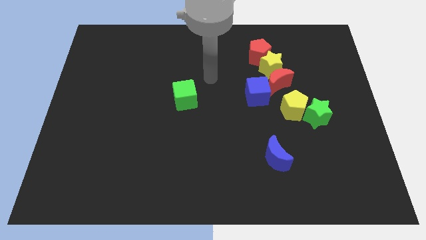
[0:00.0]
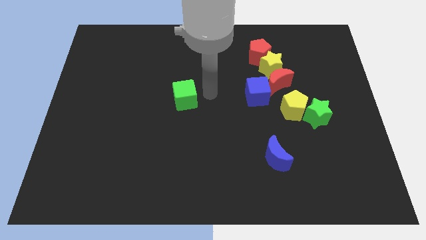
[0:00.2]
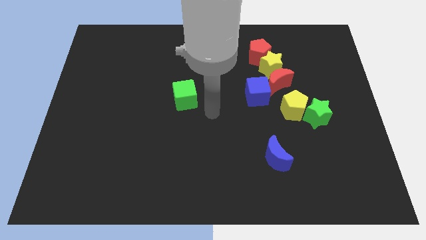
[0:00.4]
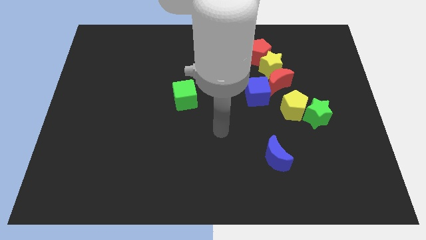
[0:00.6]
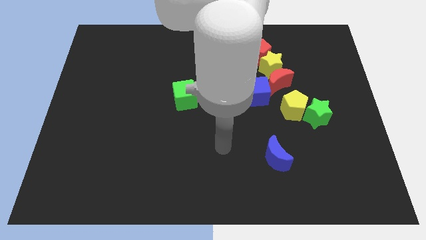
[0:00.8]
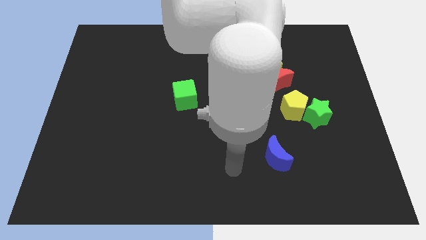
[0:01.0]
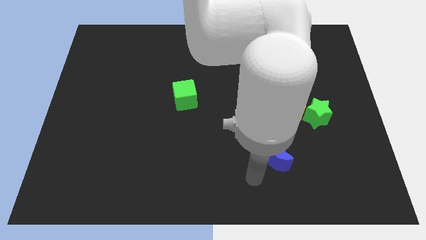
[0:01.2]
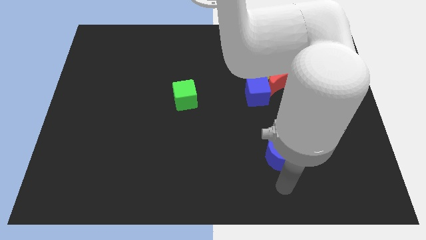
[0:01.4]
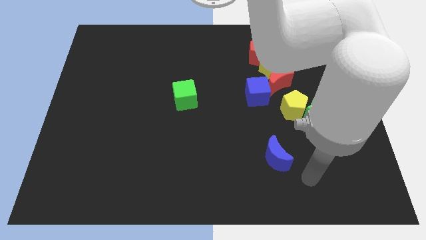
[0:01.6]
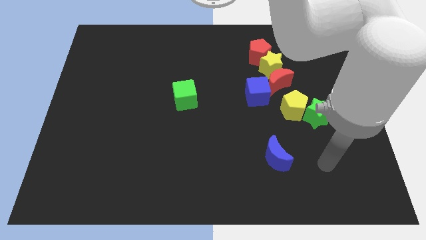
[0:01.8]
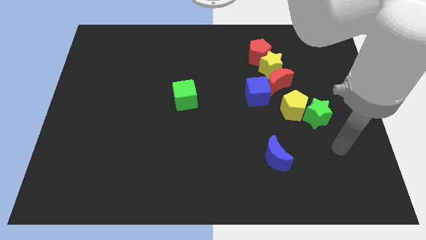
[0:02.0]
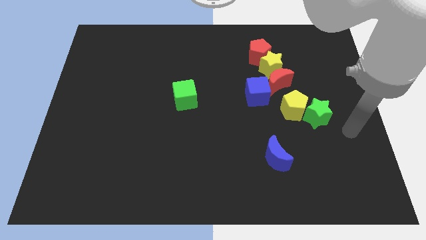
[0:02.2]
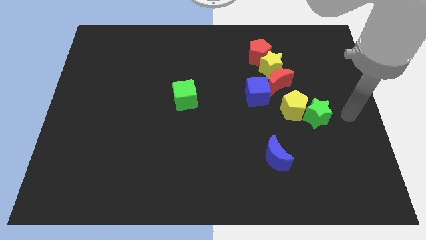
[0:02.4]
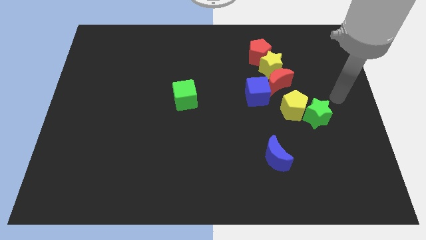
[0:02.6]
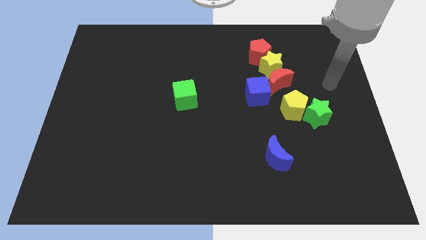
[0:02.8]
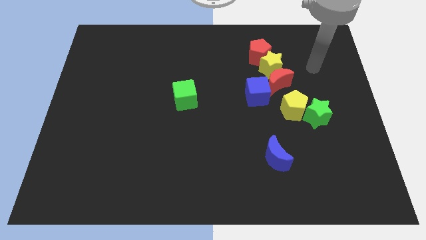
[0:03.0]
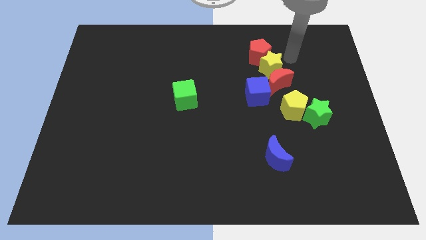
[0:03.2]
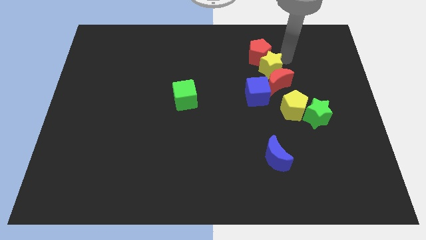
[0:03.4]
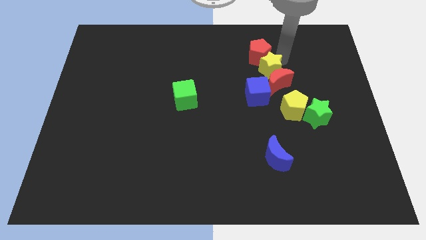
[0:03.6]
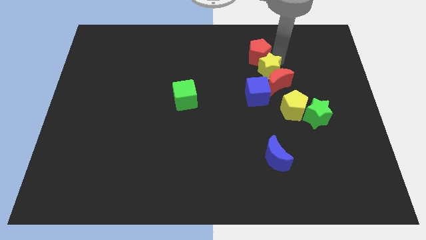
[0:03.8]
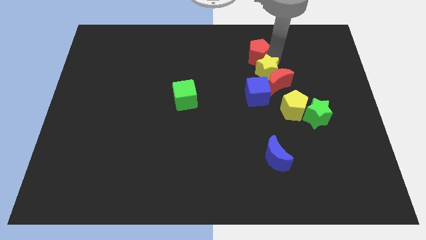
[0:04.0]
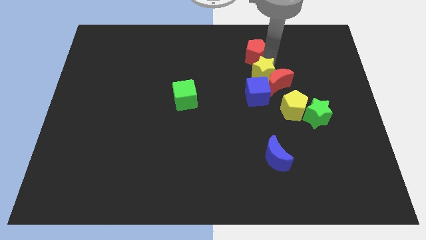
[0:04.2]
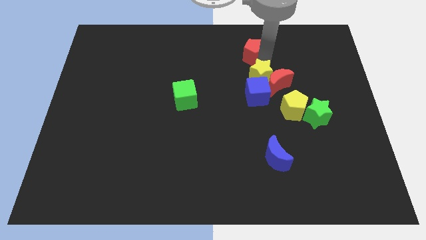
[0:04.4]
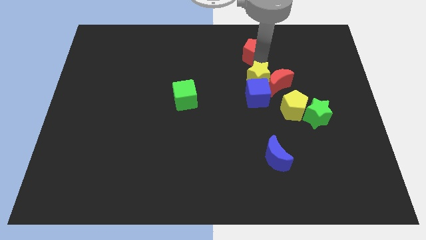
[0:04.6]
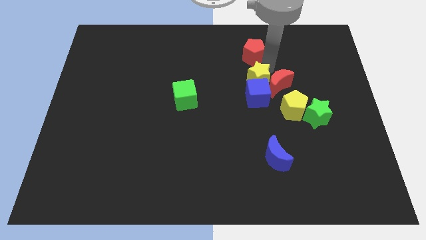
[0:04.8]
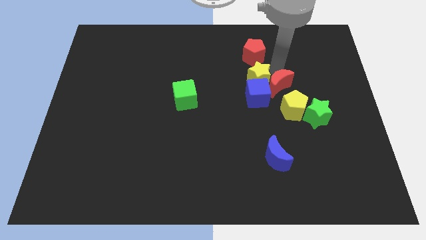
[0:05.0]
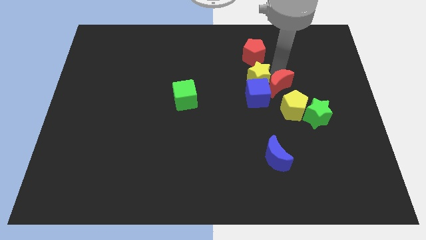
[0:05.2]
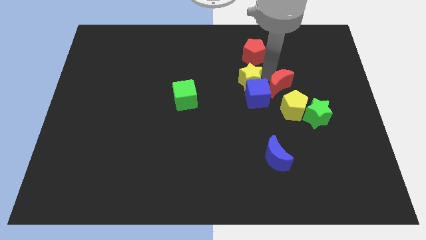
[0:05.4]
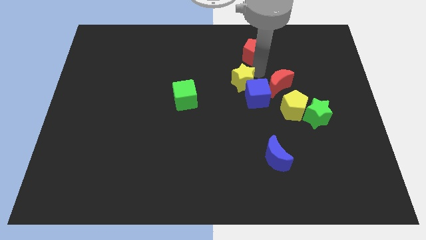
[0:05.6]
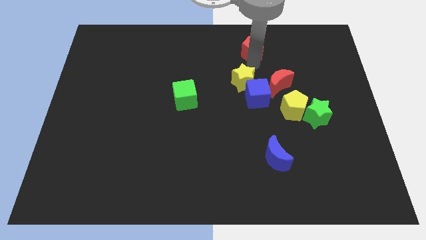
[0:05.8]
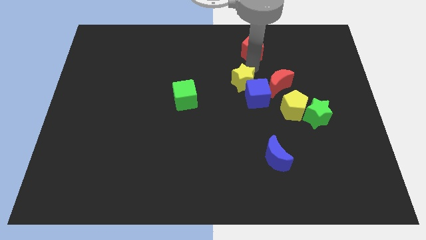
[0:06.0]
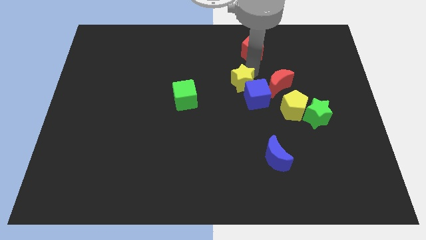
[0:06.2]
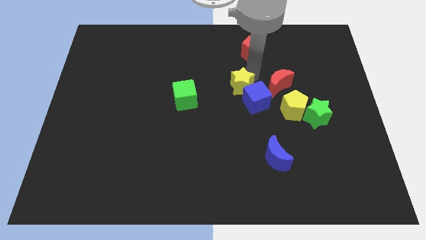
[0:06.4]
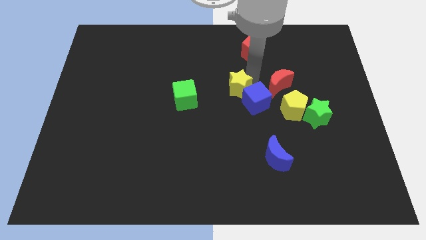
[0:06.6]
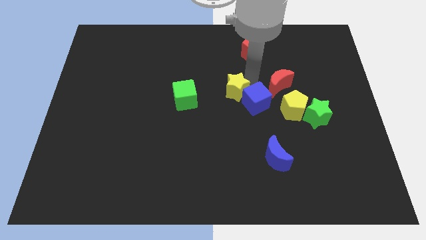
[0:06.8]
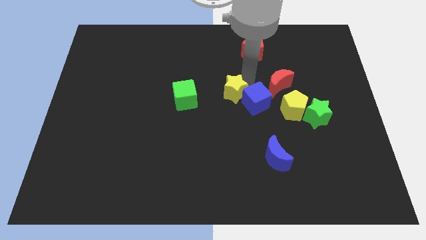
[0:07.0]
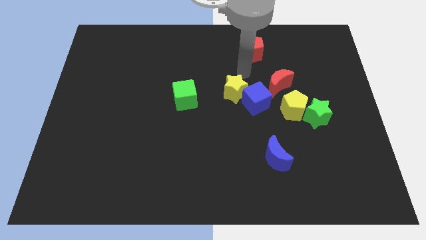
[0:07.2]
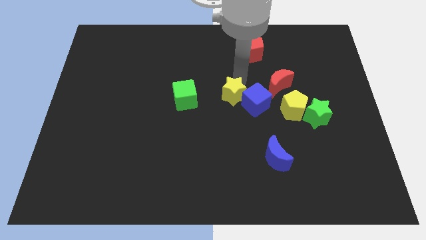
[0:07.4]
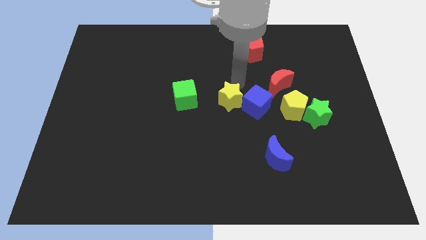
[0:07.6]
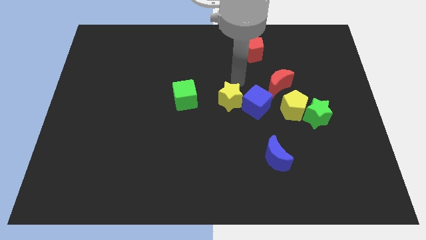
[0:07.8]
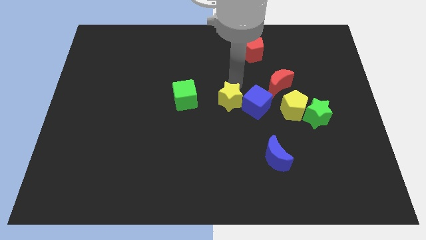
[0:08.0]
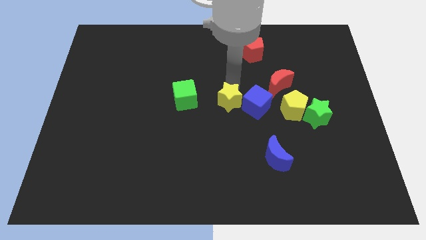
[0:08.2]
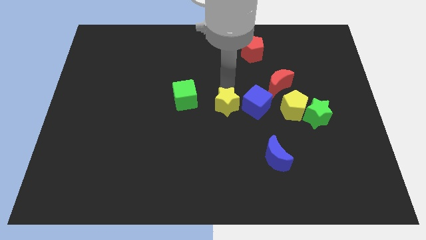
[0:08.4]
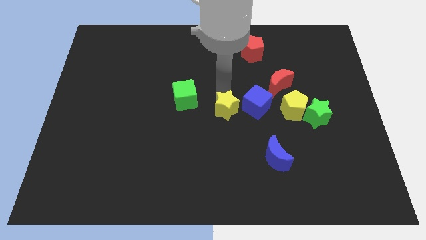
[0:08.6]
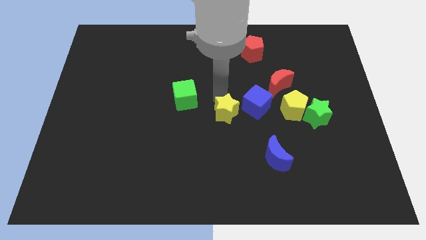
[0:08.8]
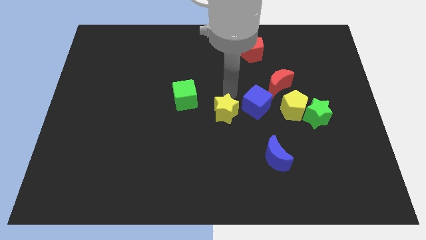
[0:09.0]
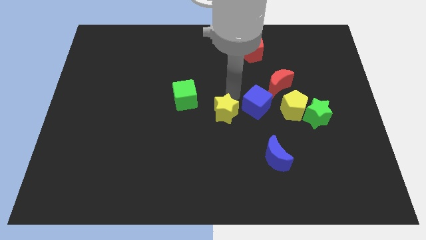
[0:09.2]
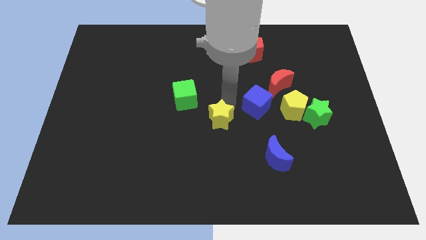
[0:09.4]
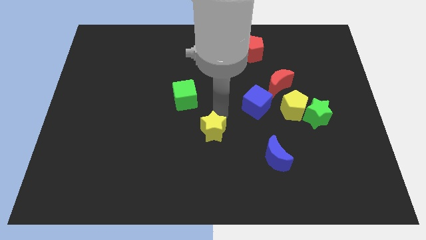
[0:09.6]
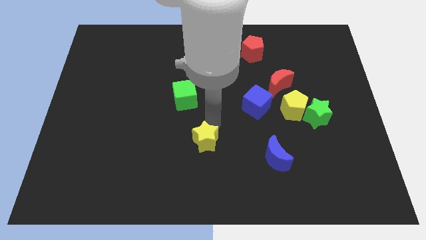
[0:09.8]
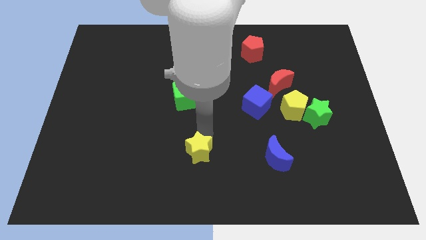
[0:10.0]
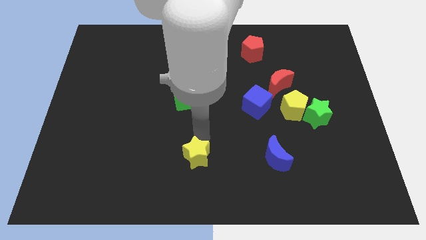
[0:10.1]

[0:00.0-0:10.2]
put the yellow star to the bottom side

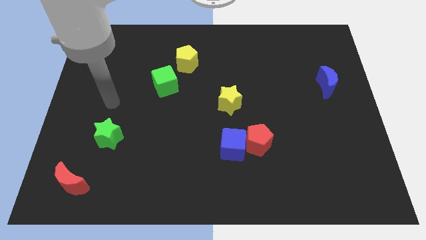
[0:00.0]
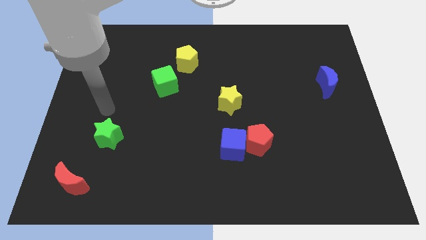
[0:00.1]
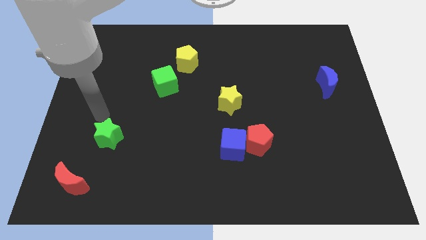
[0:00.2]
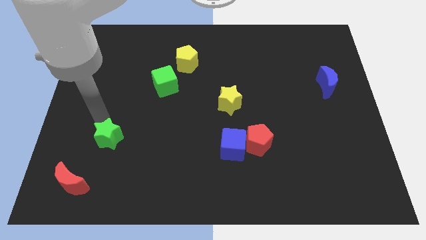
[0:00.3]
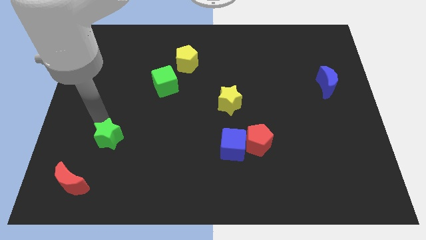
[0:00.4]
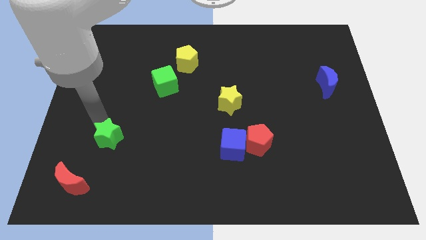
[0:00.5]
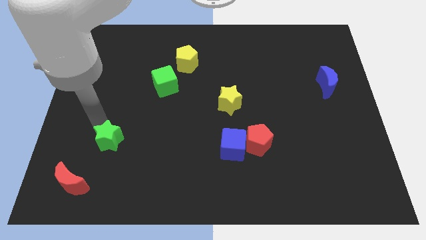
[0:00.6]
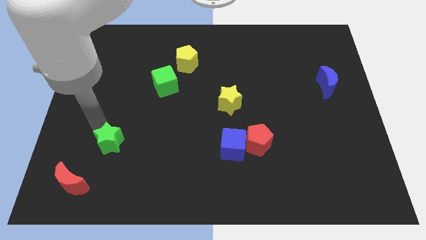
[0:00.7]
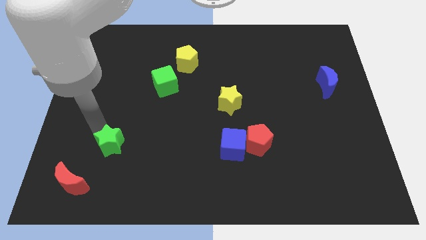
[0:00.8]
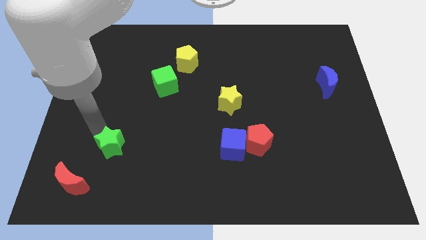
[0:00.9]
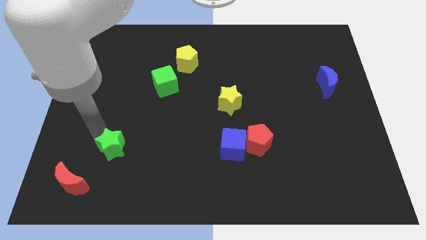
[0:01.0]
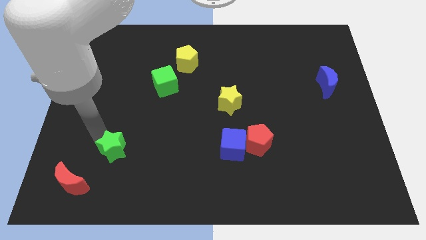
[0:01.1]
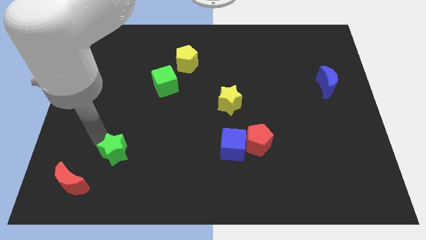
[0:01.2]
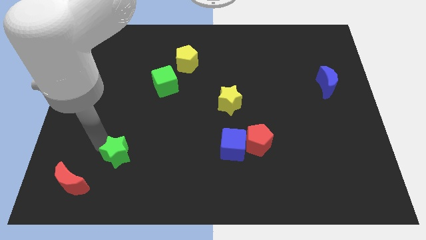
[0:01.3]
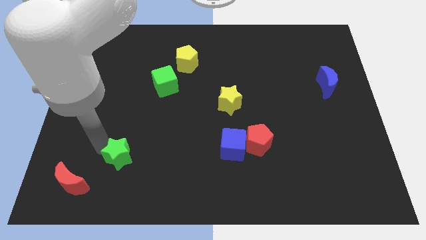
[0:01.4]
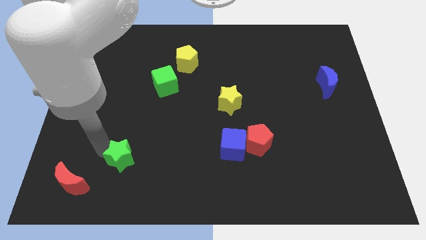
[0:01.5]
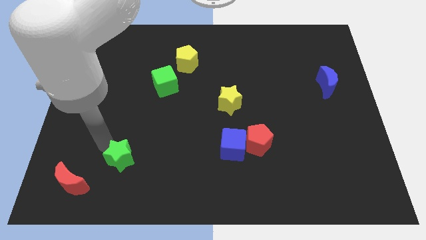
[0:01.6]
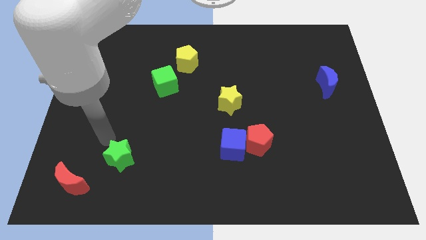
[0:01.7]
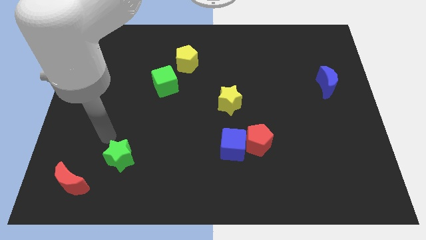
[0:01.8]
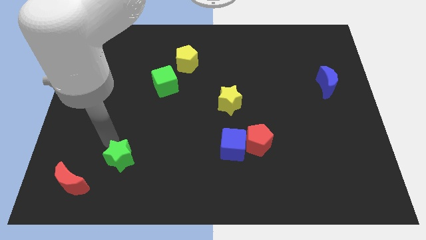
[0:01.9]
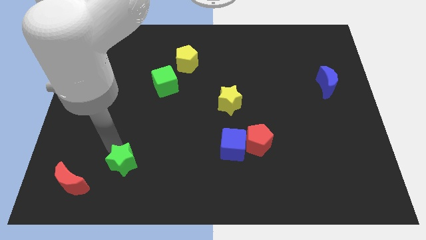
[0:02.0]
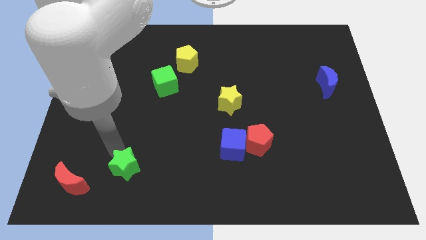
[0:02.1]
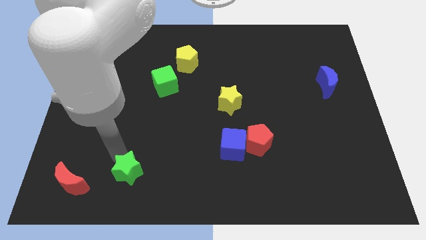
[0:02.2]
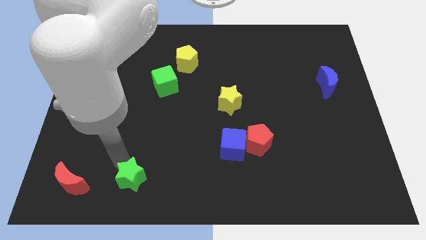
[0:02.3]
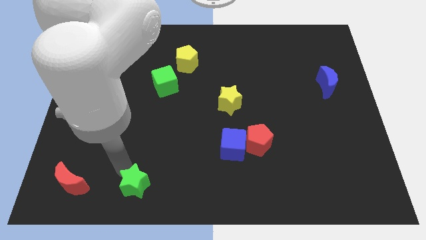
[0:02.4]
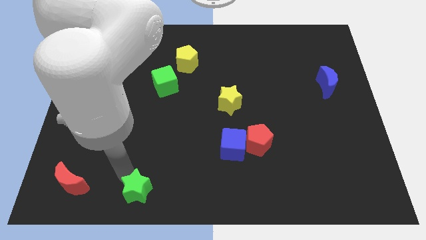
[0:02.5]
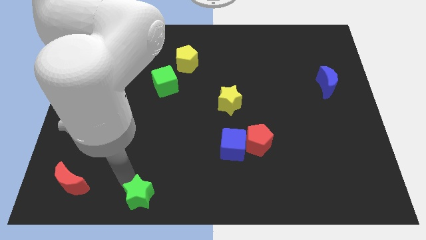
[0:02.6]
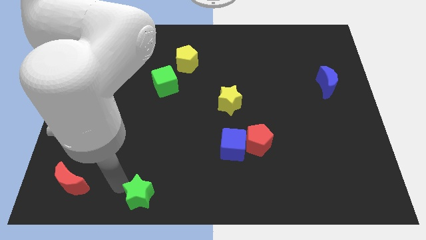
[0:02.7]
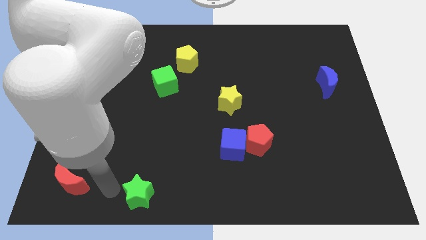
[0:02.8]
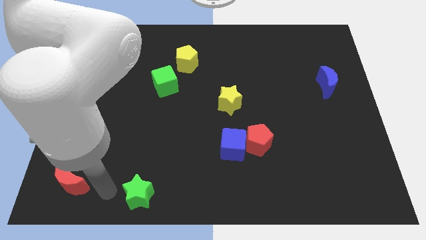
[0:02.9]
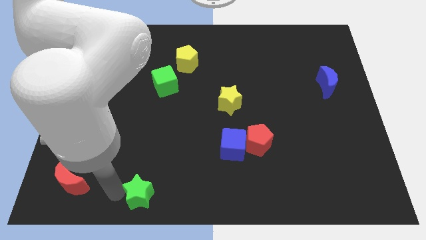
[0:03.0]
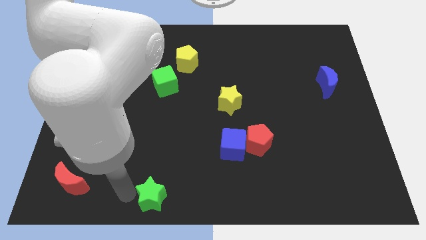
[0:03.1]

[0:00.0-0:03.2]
push the green star to the bottom
